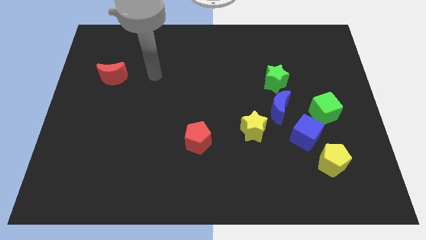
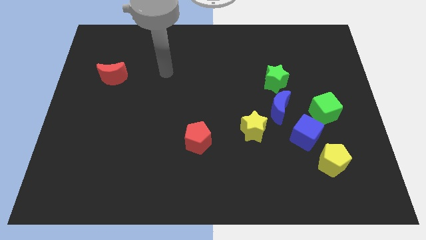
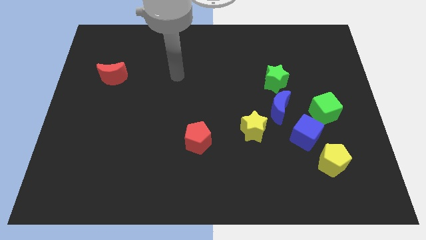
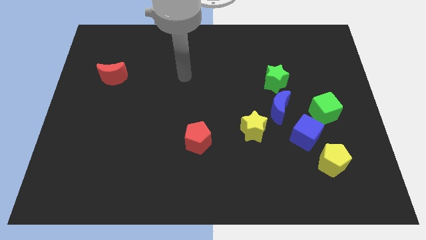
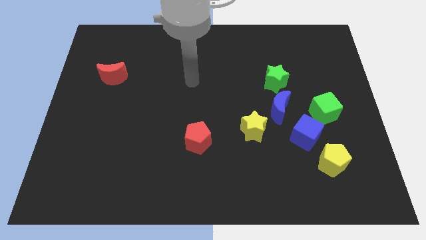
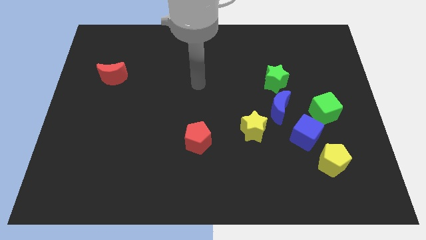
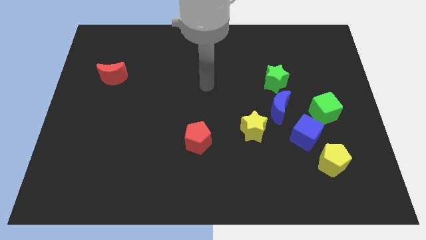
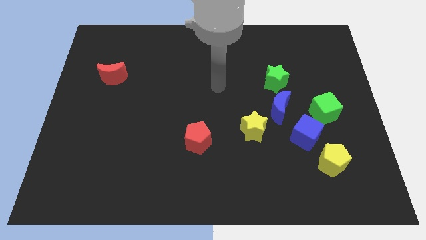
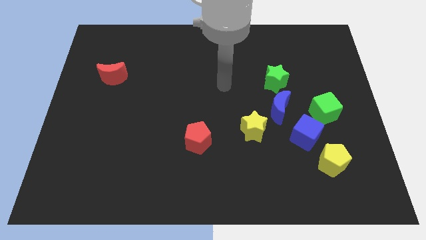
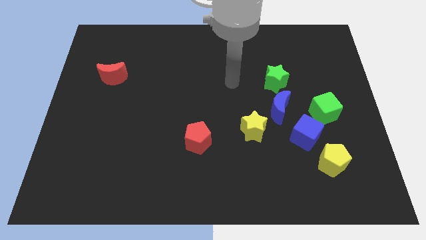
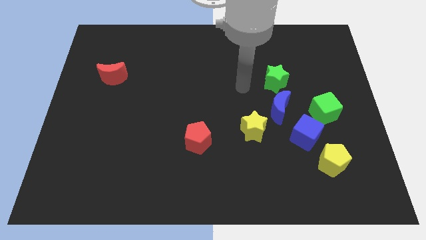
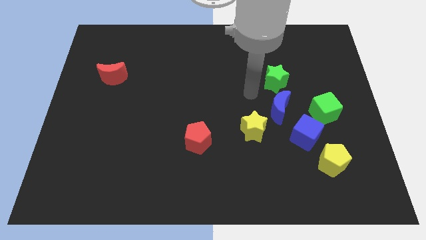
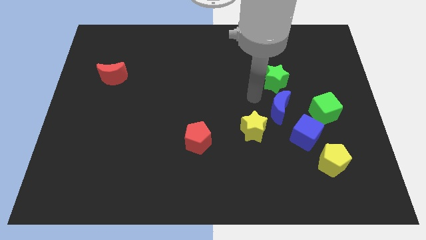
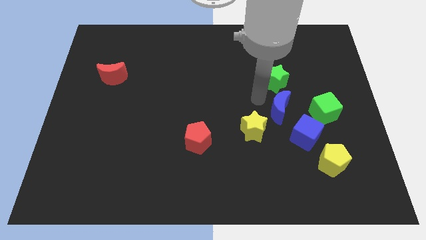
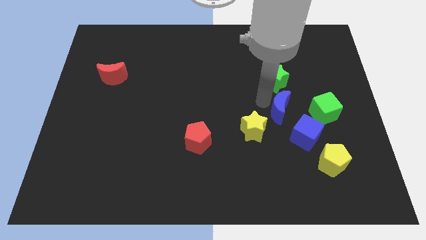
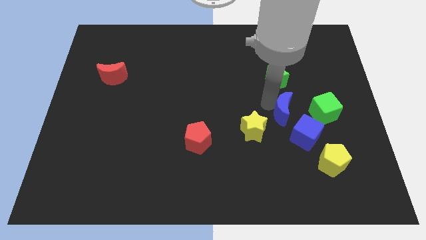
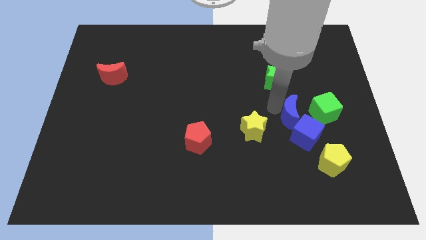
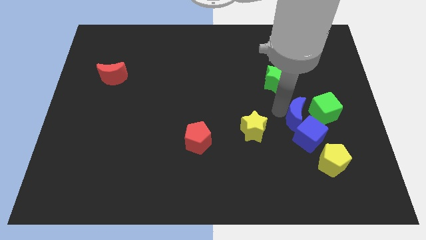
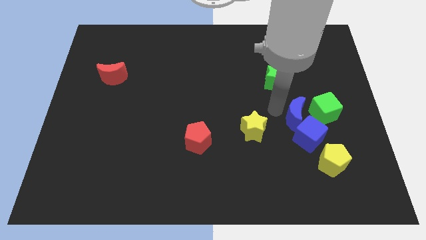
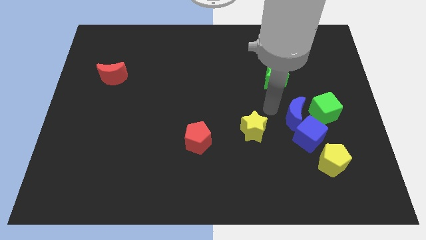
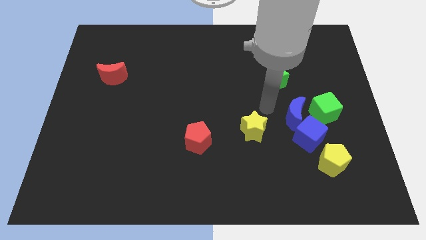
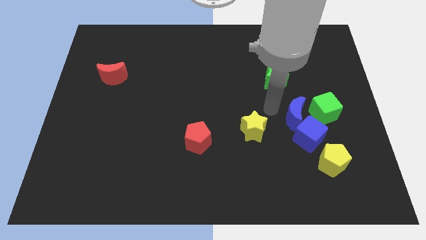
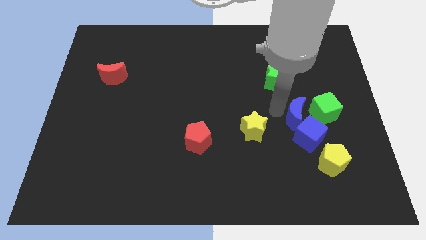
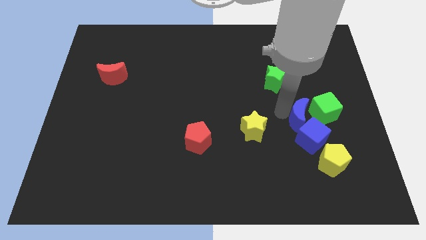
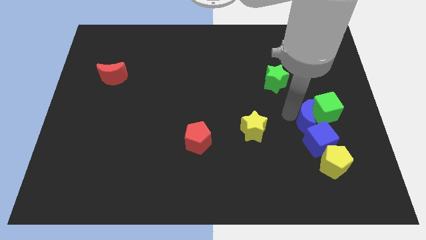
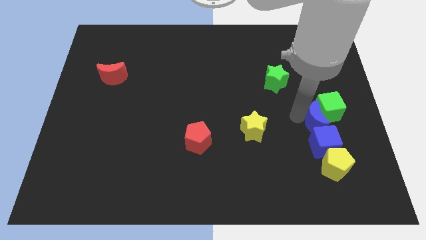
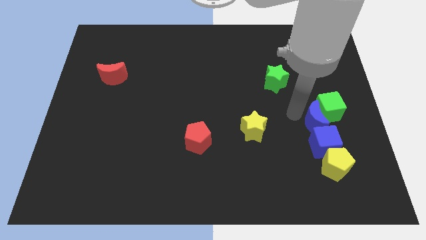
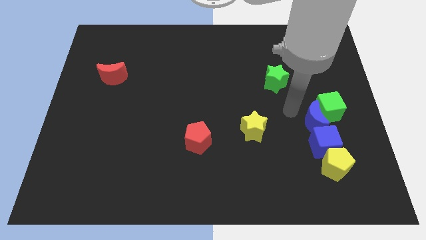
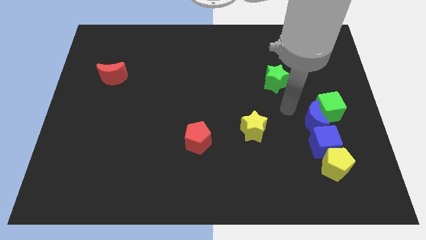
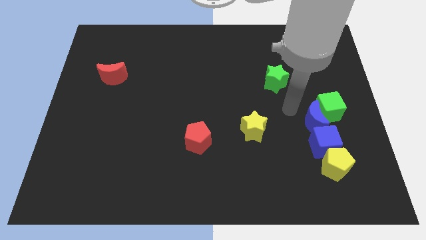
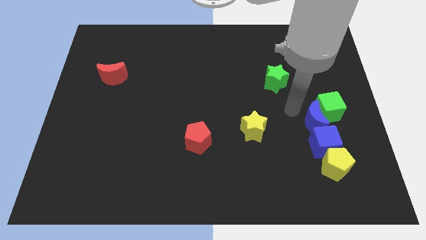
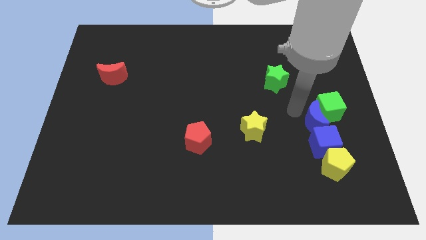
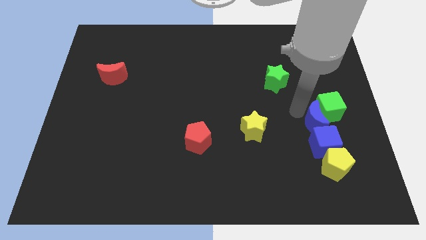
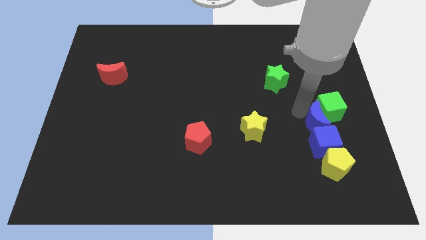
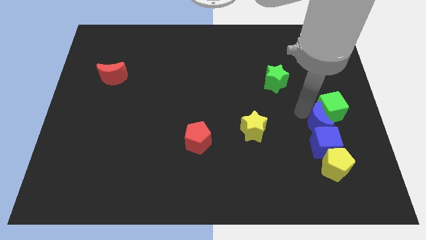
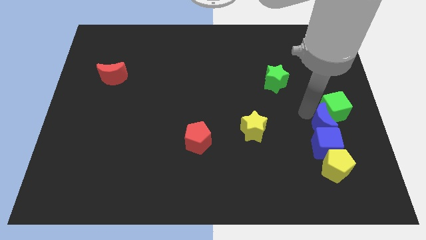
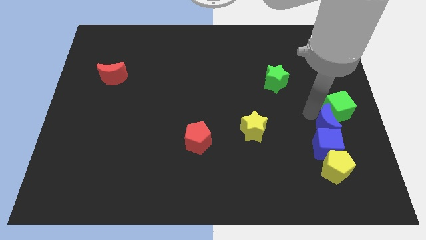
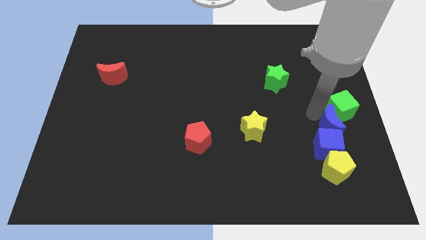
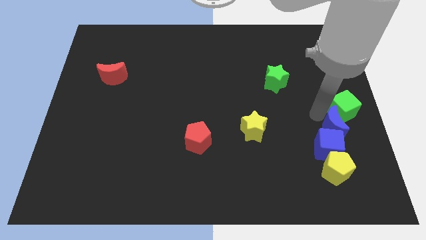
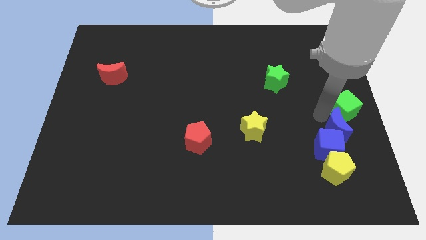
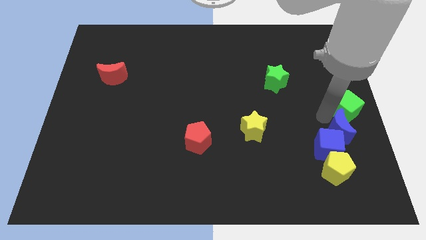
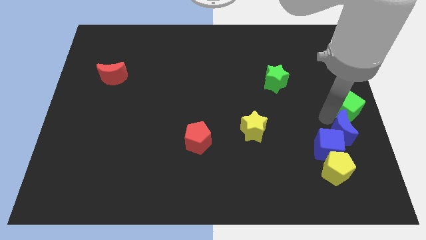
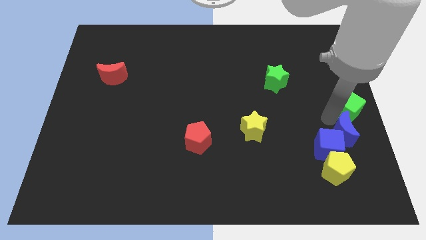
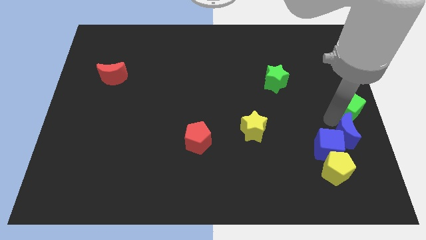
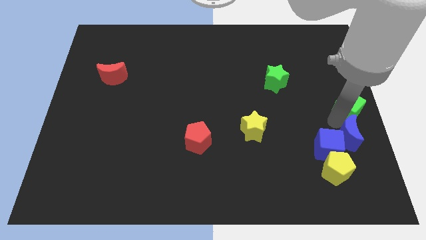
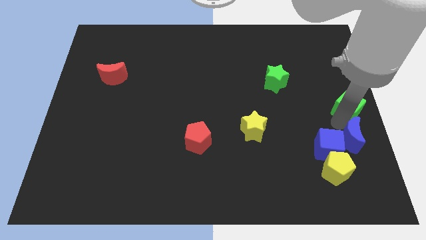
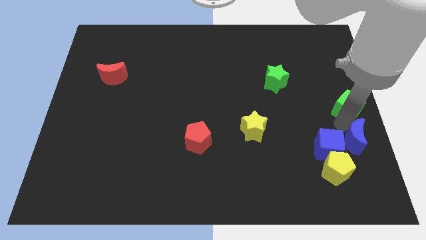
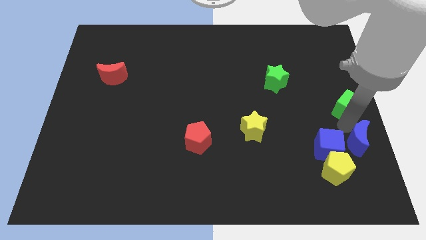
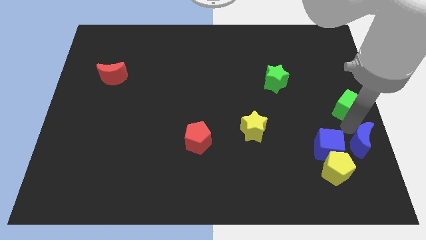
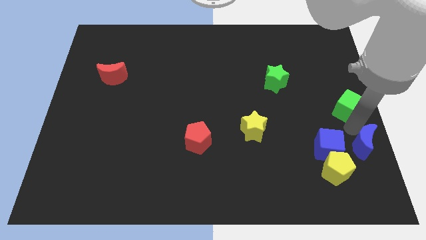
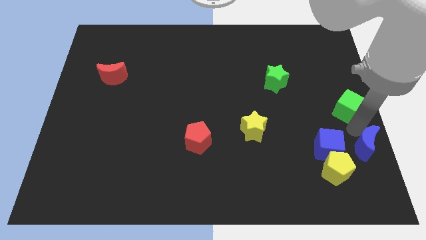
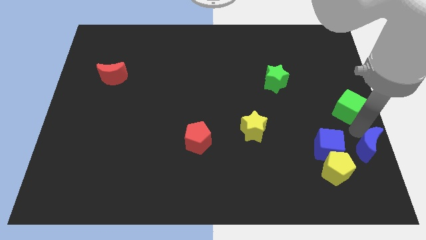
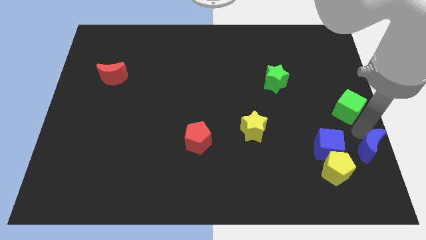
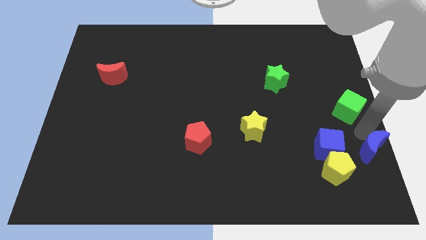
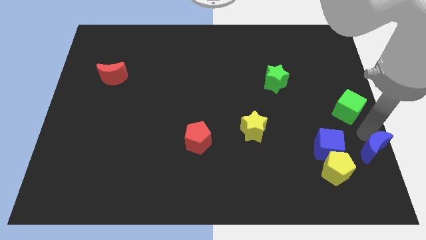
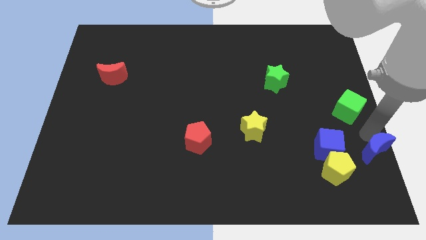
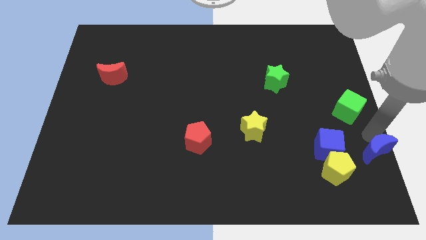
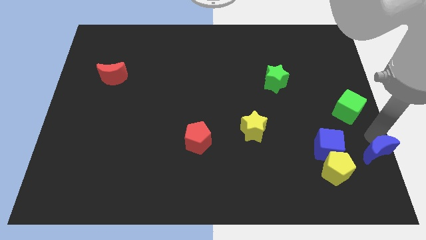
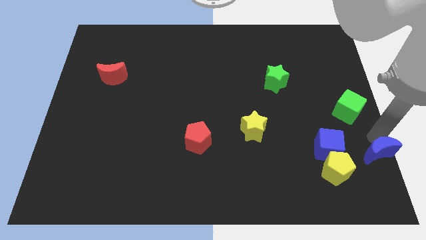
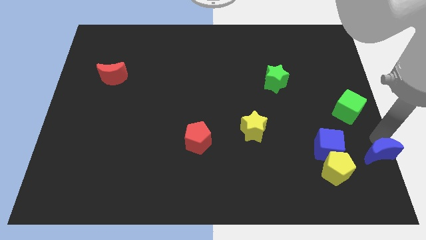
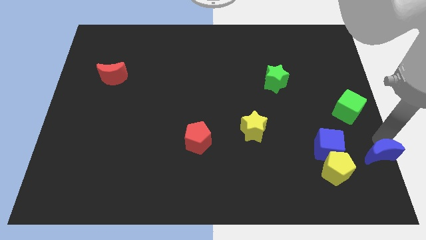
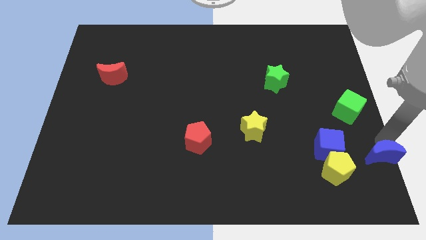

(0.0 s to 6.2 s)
push the blue moon to the bottom right of the board

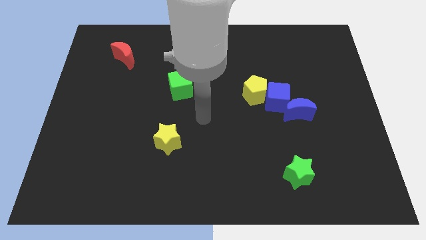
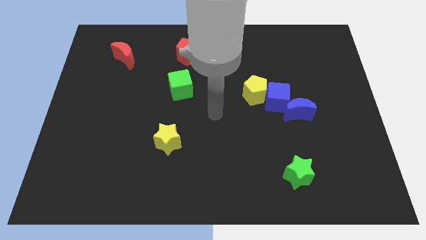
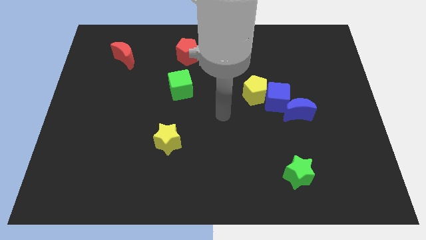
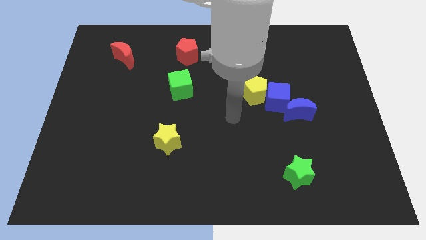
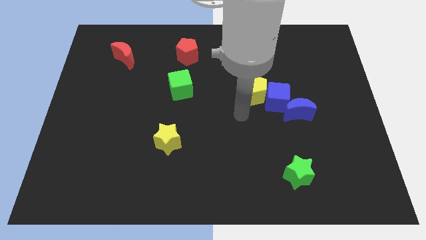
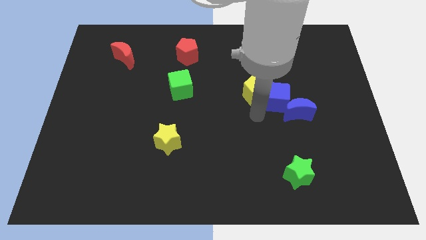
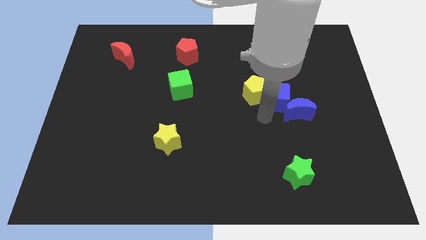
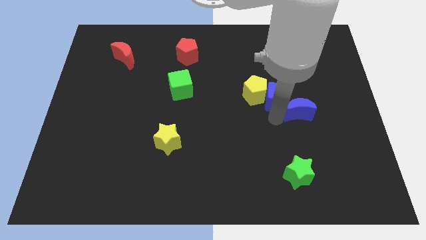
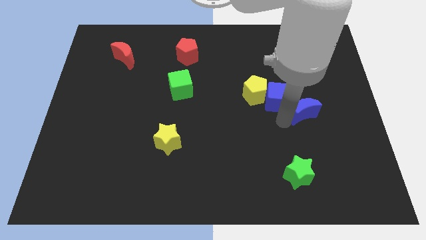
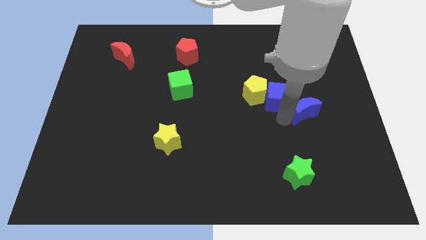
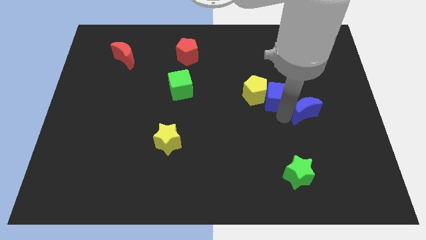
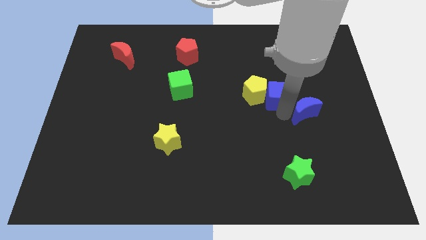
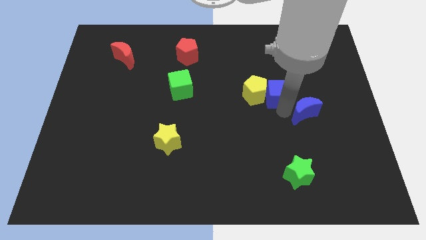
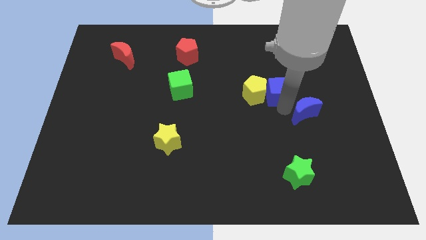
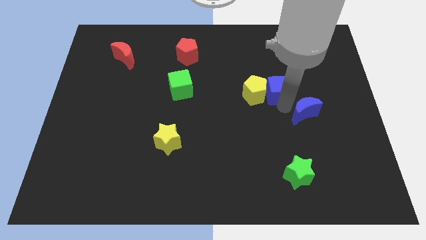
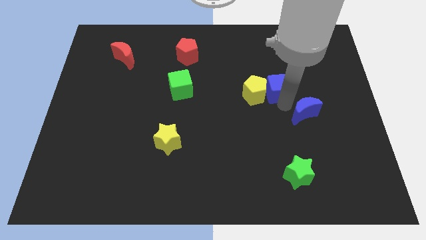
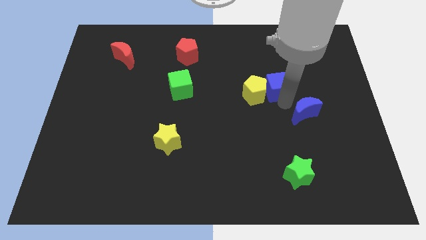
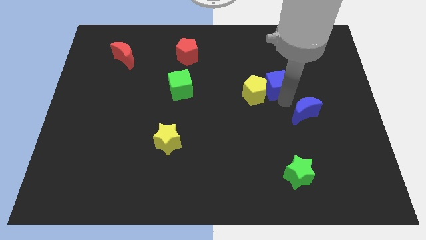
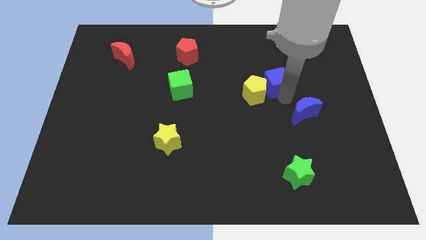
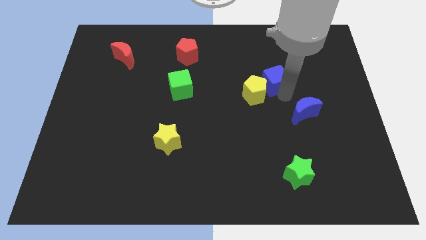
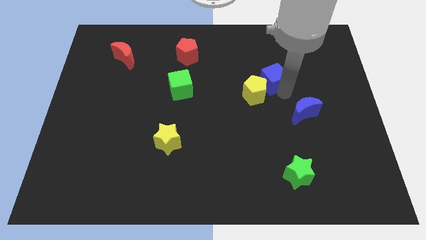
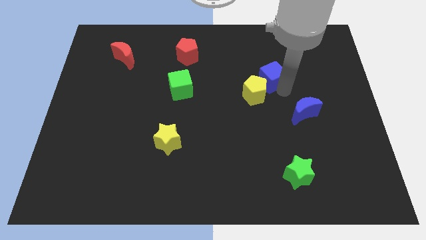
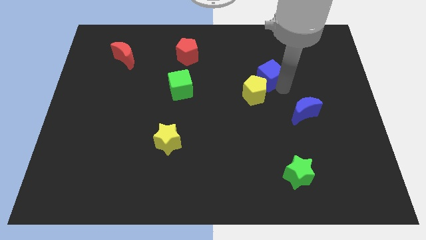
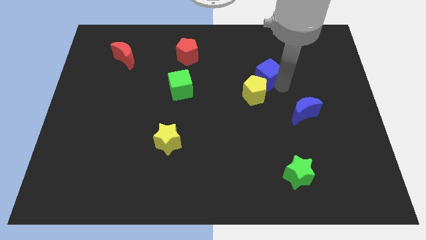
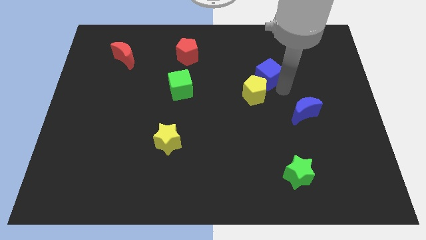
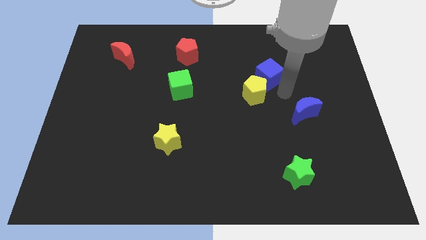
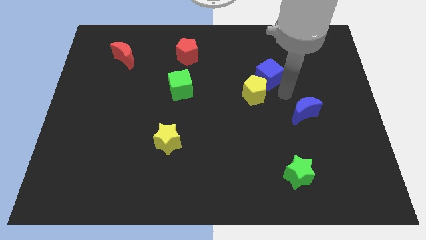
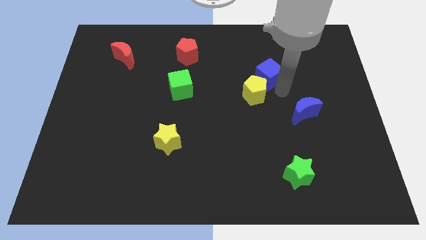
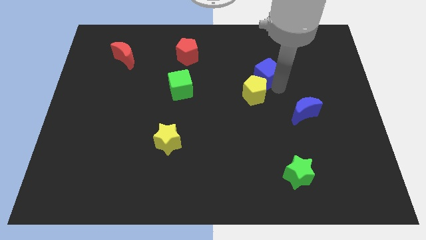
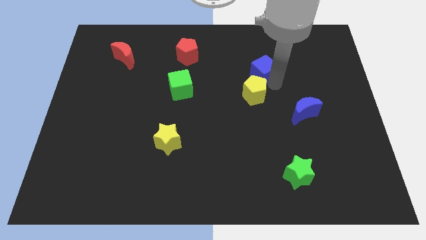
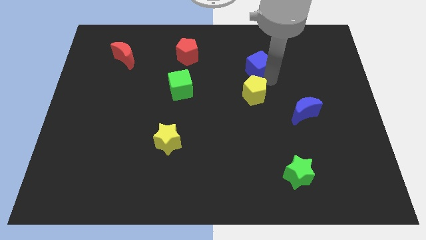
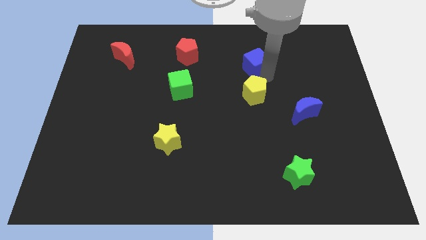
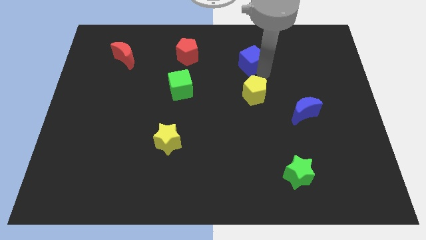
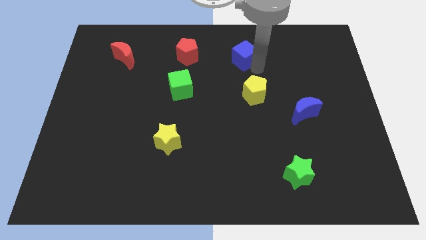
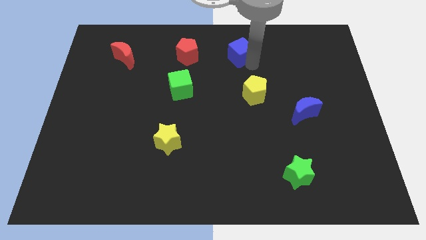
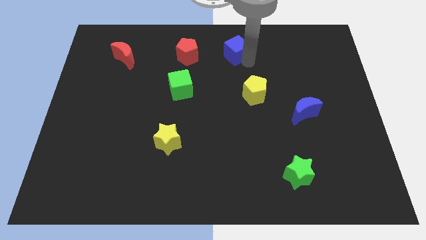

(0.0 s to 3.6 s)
push the blue cube to the top side
